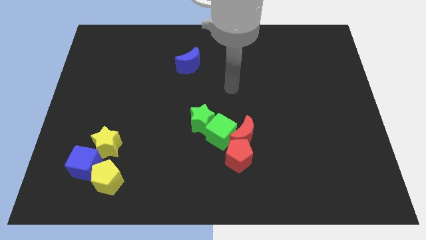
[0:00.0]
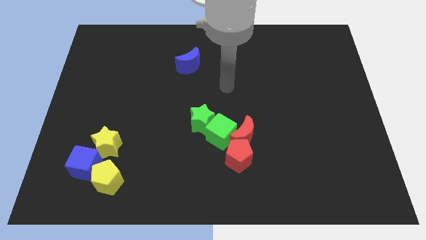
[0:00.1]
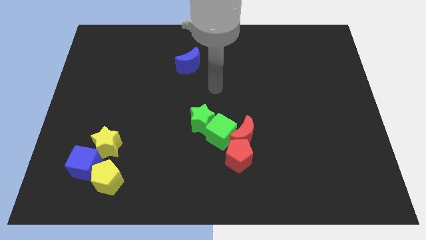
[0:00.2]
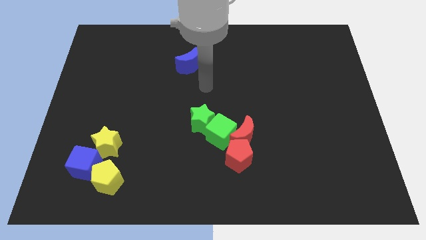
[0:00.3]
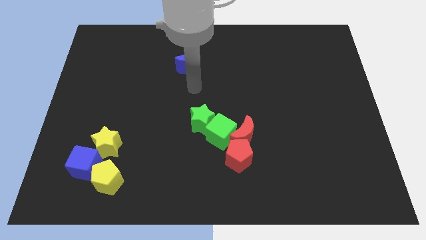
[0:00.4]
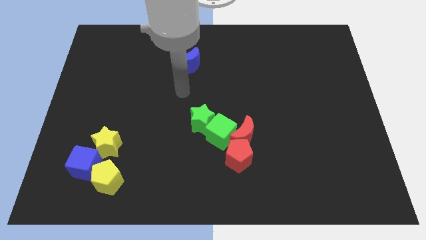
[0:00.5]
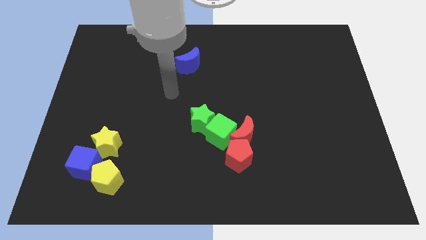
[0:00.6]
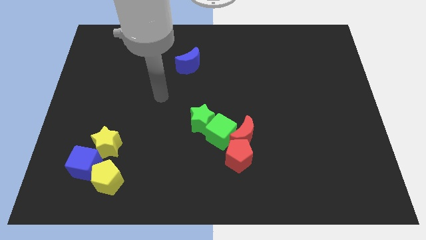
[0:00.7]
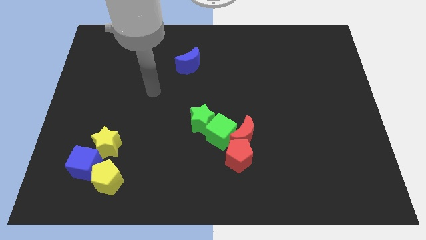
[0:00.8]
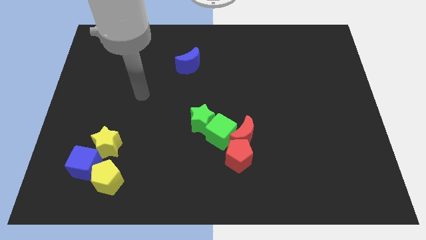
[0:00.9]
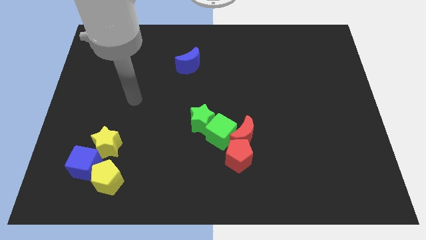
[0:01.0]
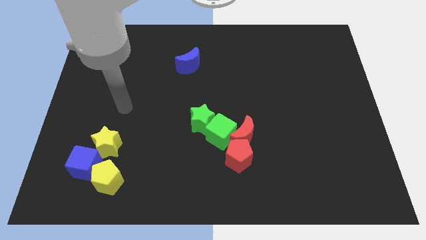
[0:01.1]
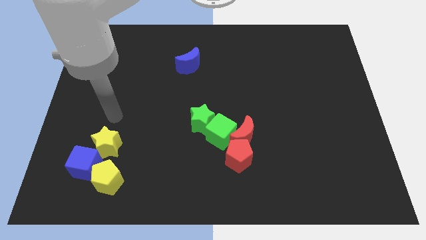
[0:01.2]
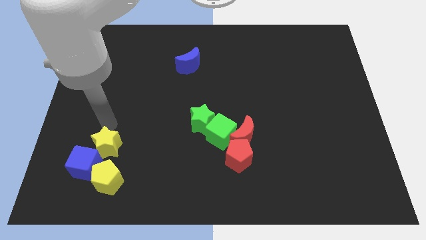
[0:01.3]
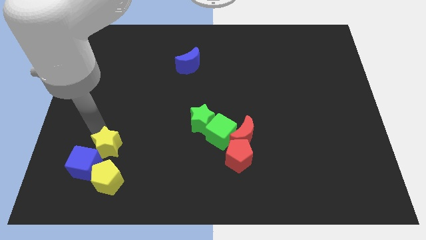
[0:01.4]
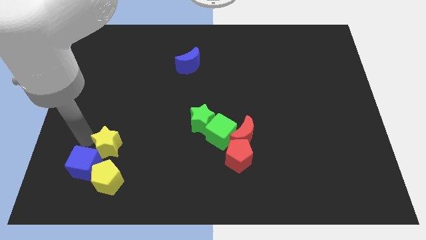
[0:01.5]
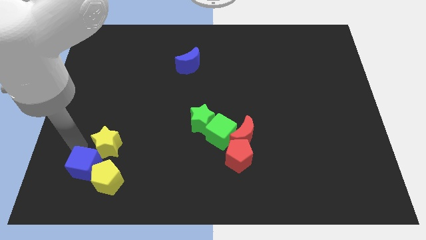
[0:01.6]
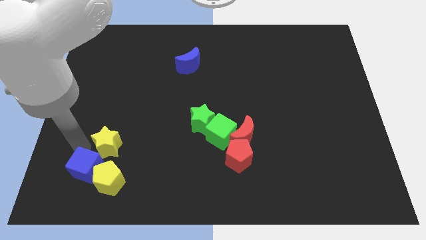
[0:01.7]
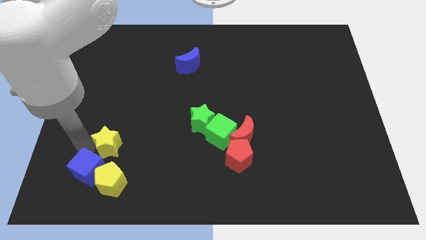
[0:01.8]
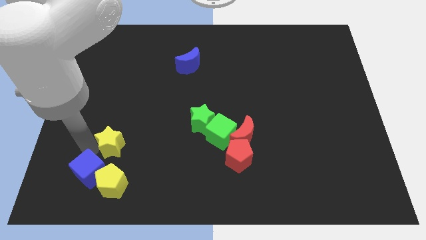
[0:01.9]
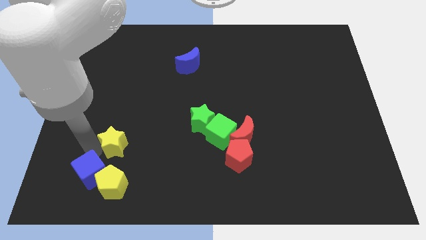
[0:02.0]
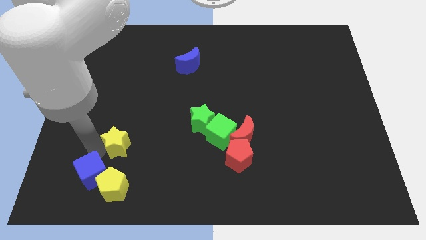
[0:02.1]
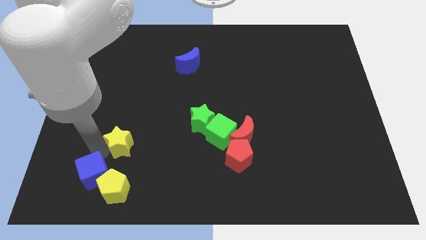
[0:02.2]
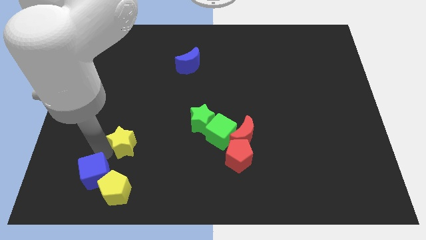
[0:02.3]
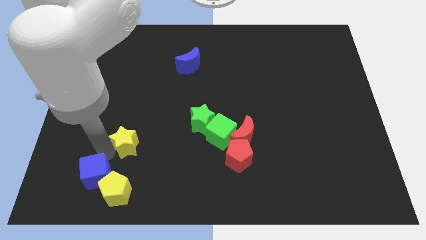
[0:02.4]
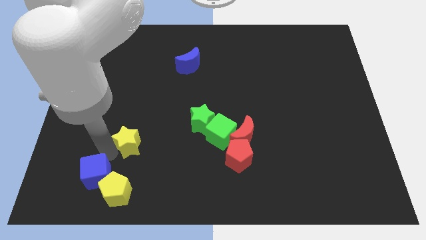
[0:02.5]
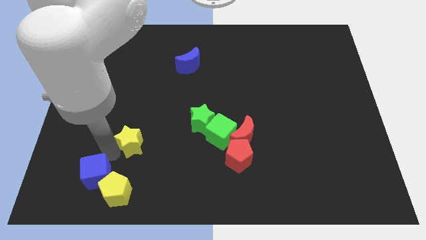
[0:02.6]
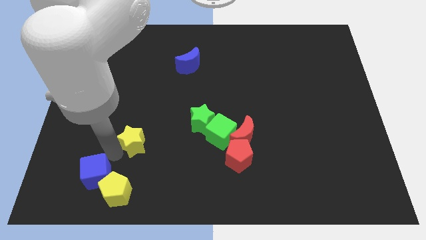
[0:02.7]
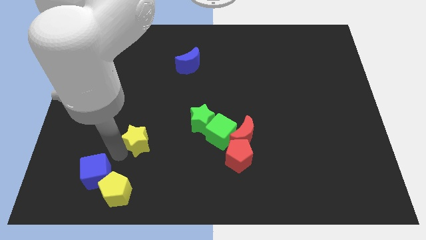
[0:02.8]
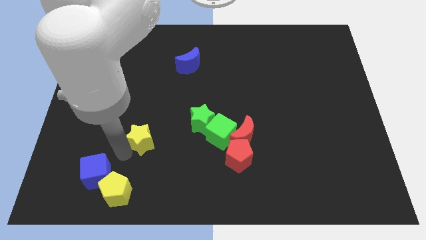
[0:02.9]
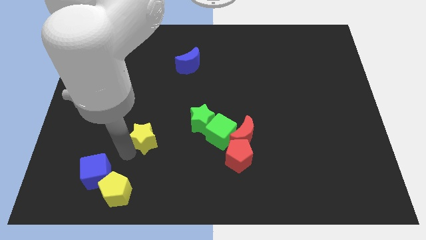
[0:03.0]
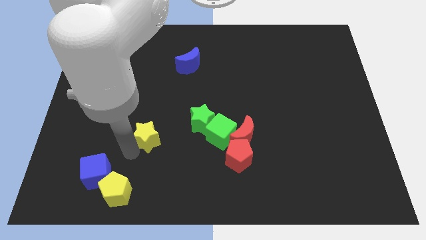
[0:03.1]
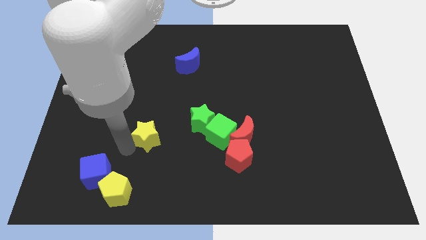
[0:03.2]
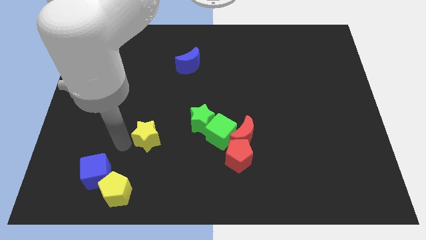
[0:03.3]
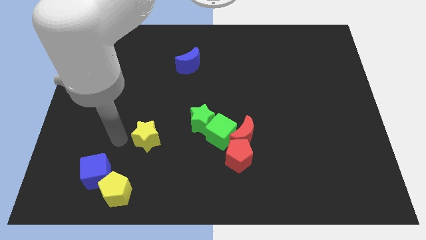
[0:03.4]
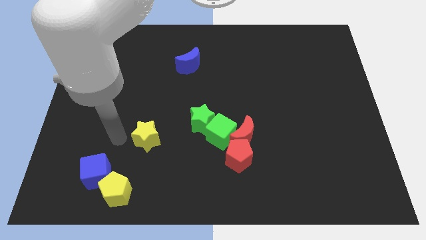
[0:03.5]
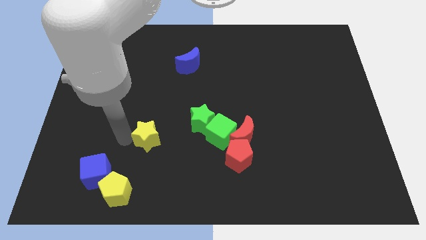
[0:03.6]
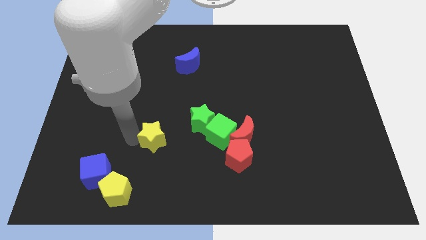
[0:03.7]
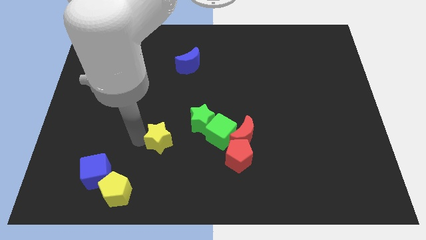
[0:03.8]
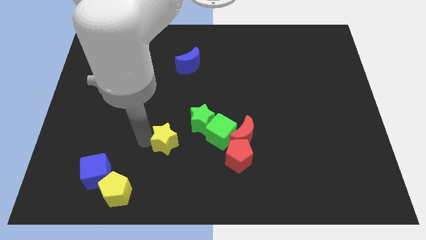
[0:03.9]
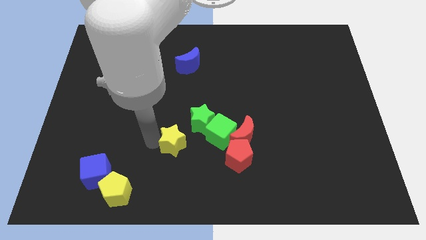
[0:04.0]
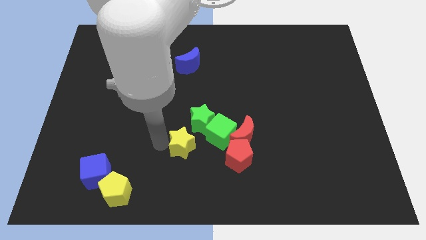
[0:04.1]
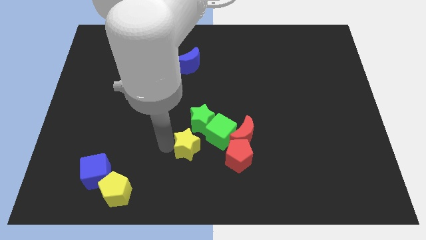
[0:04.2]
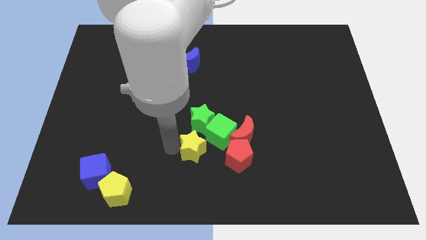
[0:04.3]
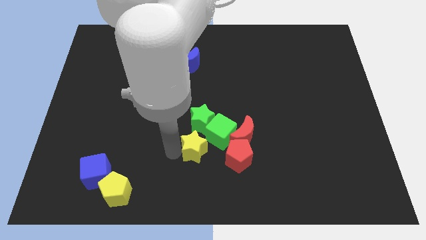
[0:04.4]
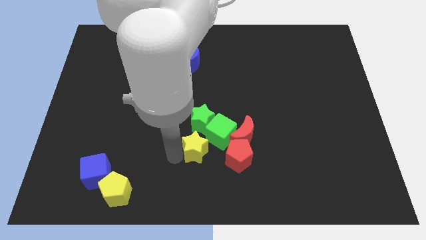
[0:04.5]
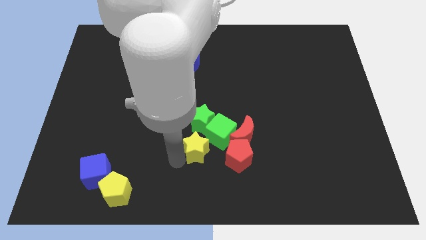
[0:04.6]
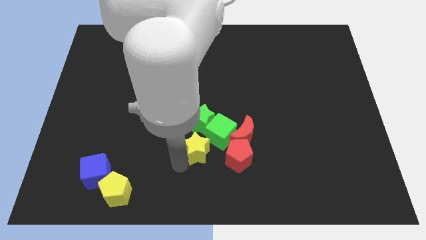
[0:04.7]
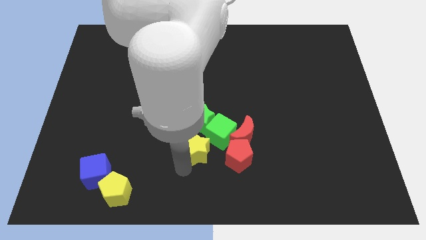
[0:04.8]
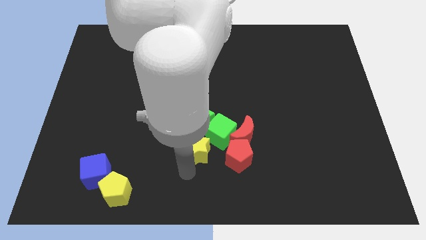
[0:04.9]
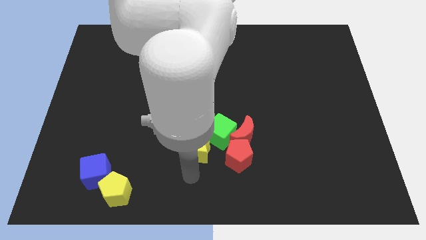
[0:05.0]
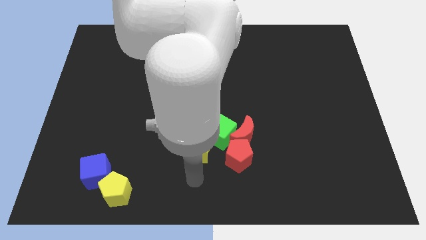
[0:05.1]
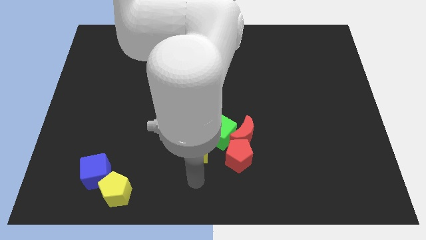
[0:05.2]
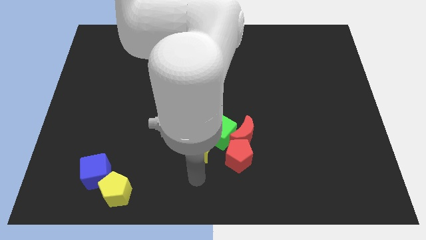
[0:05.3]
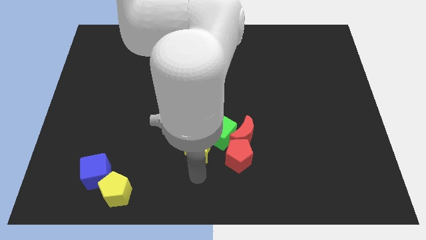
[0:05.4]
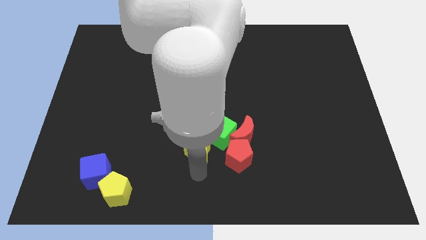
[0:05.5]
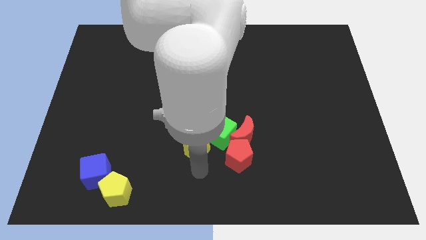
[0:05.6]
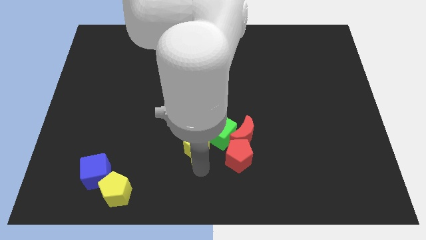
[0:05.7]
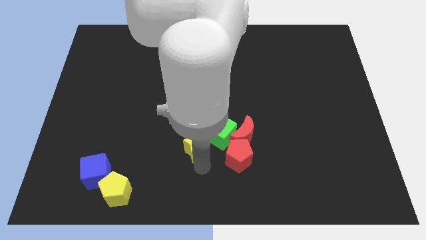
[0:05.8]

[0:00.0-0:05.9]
push the yellow star to the green cube
